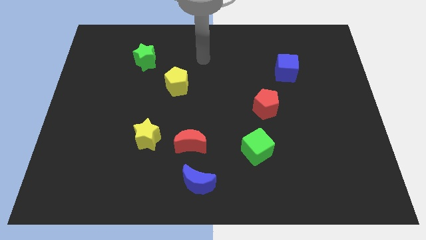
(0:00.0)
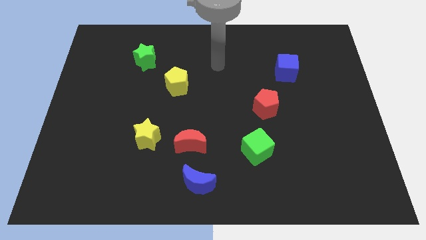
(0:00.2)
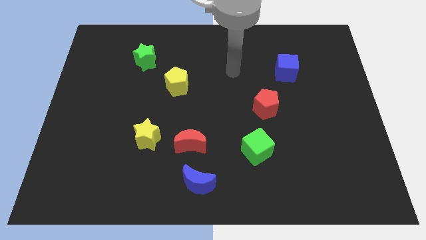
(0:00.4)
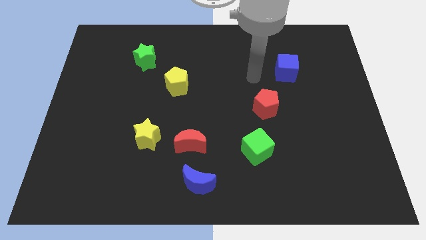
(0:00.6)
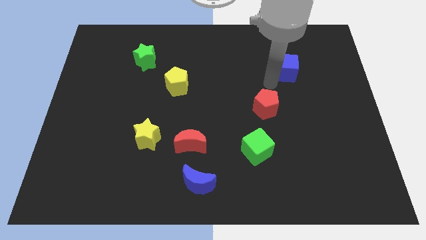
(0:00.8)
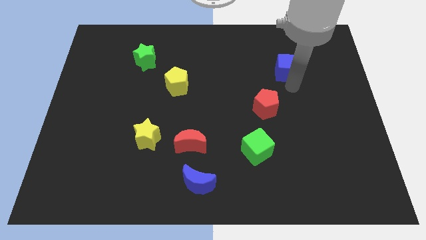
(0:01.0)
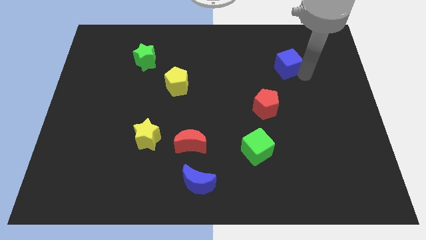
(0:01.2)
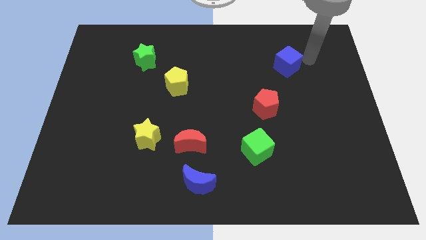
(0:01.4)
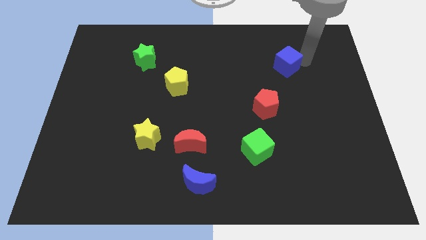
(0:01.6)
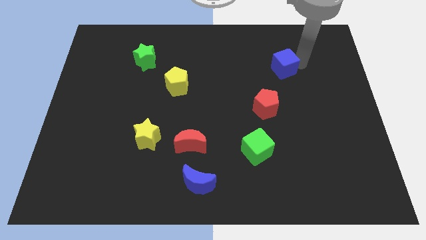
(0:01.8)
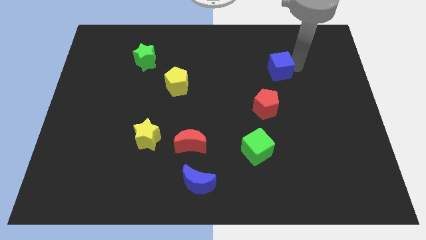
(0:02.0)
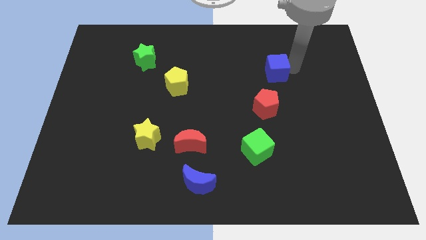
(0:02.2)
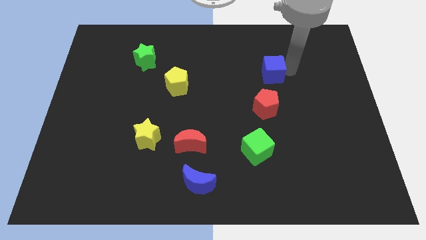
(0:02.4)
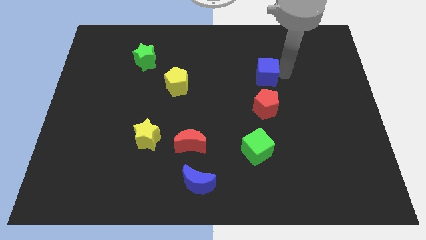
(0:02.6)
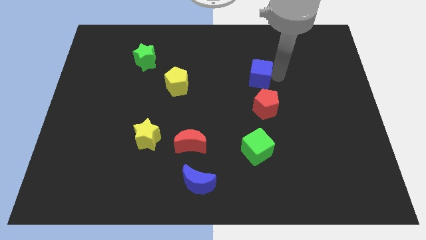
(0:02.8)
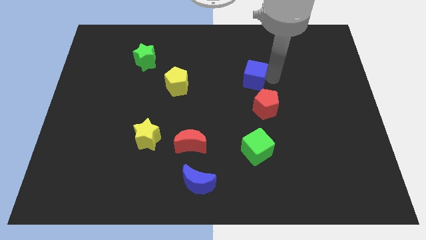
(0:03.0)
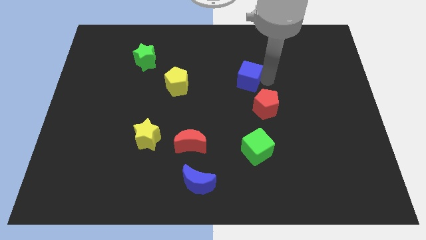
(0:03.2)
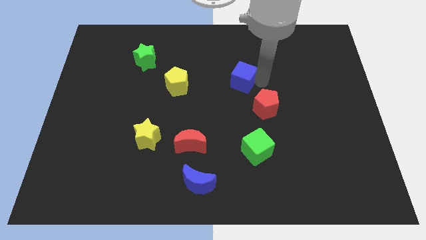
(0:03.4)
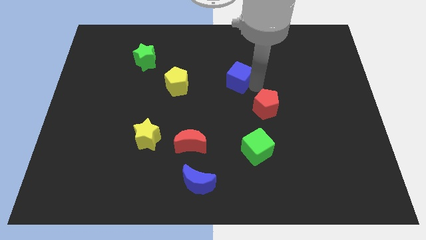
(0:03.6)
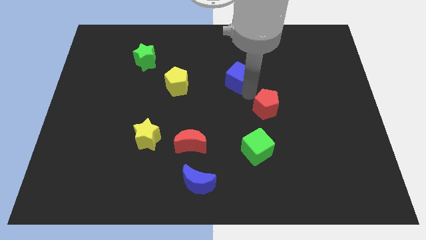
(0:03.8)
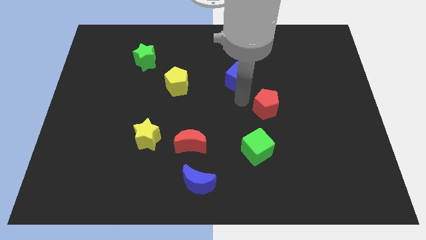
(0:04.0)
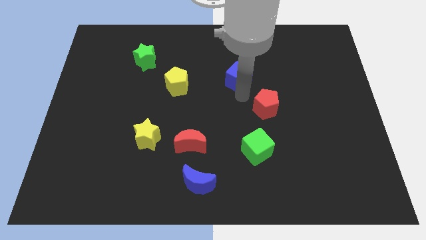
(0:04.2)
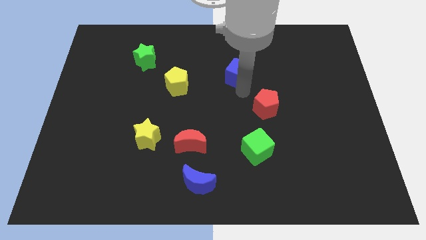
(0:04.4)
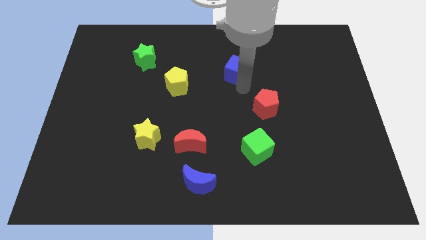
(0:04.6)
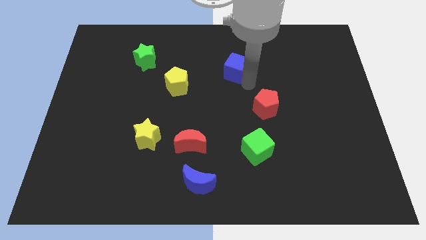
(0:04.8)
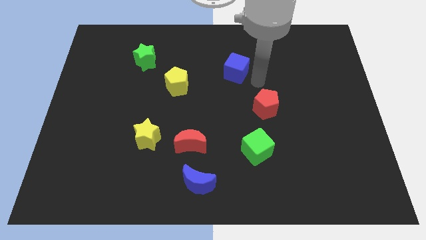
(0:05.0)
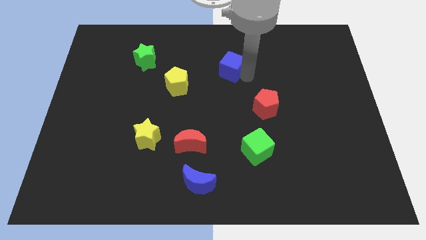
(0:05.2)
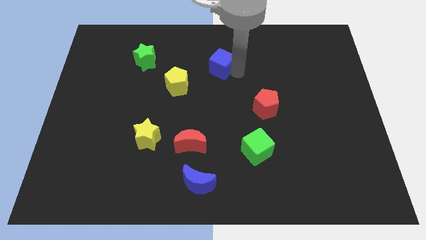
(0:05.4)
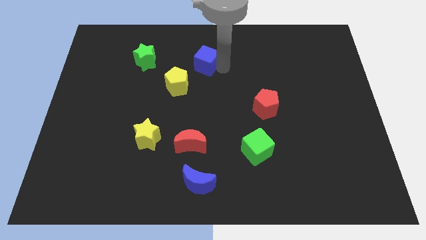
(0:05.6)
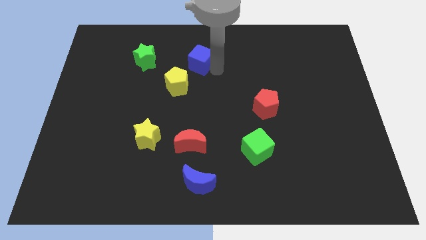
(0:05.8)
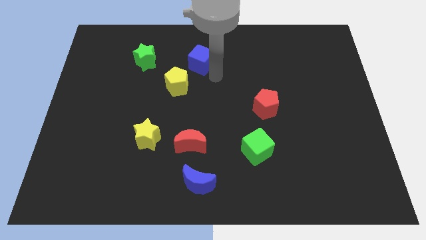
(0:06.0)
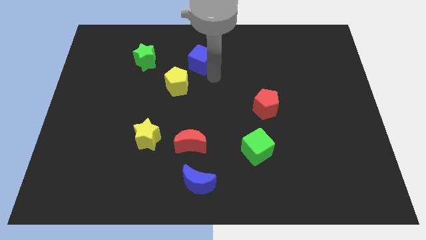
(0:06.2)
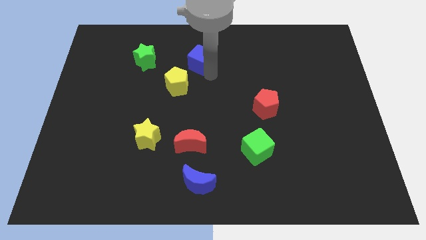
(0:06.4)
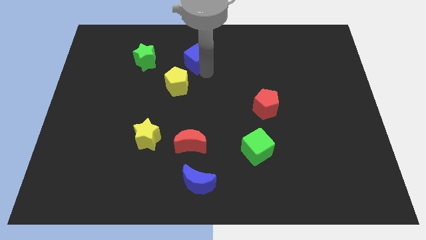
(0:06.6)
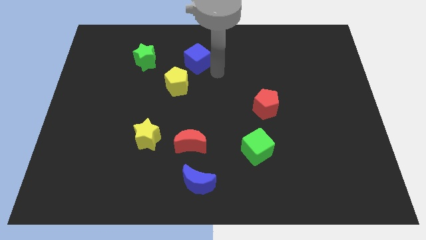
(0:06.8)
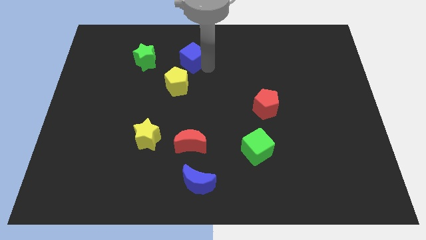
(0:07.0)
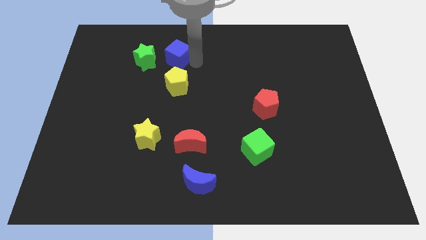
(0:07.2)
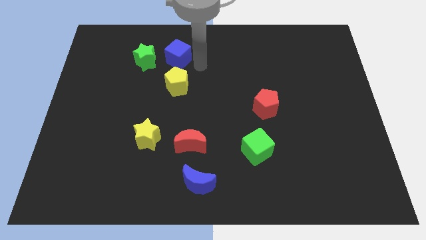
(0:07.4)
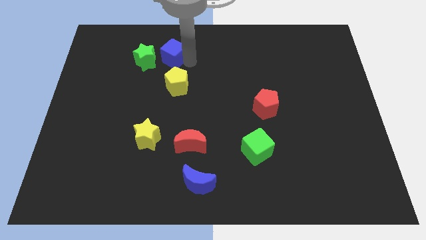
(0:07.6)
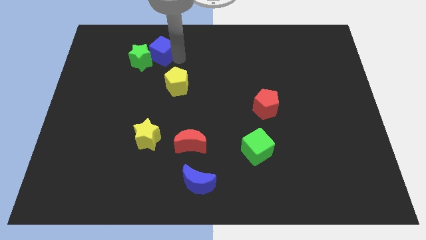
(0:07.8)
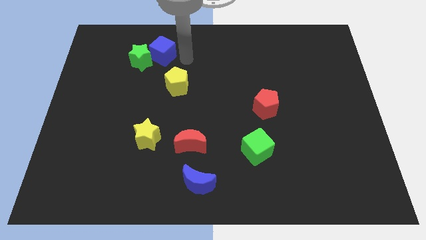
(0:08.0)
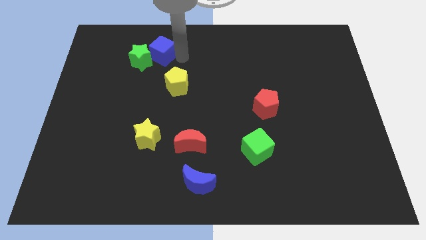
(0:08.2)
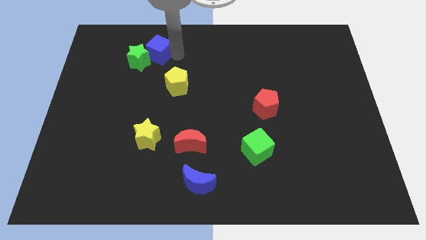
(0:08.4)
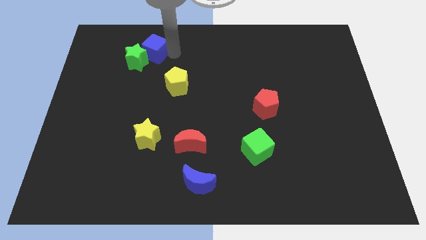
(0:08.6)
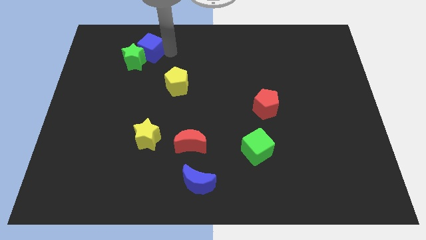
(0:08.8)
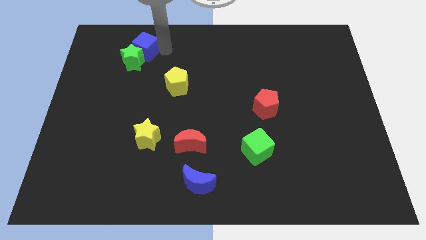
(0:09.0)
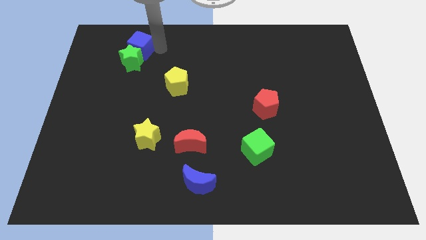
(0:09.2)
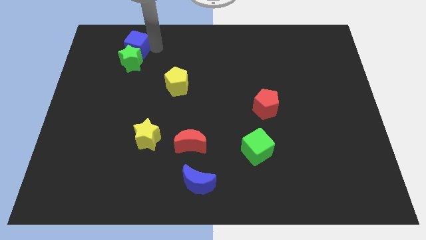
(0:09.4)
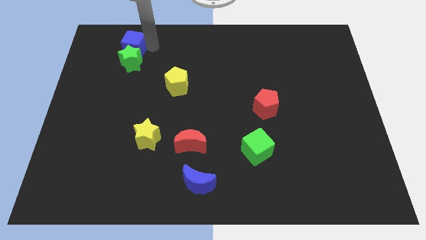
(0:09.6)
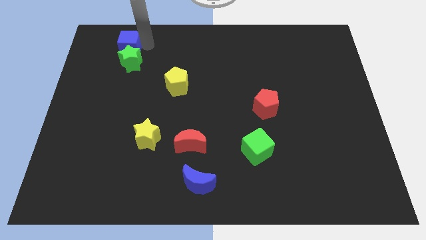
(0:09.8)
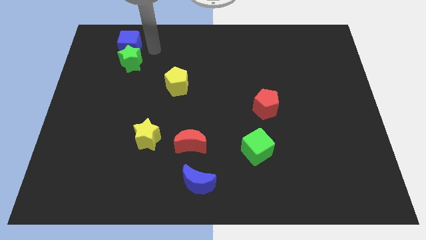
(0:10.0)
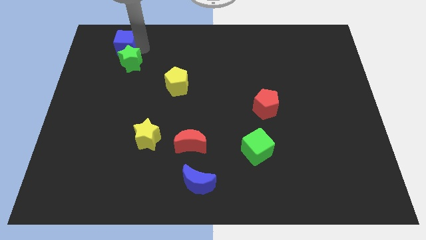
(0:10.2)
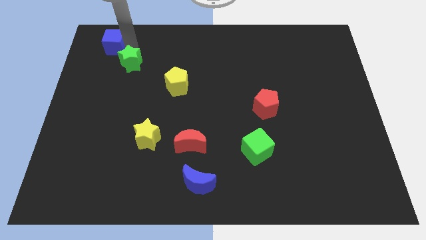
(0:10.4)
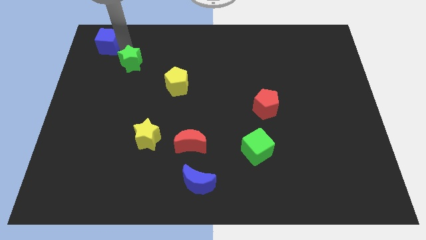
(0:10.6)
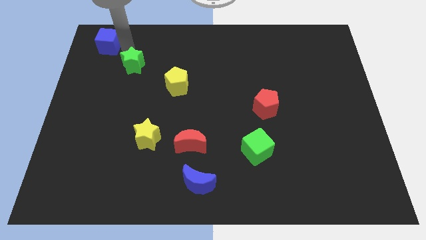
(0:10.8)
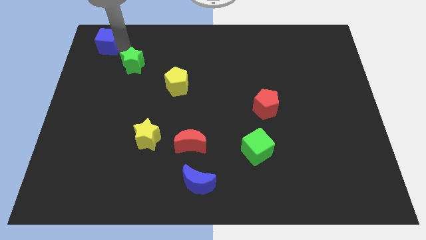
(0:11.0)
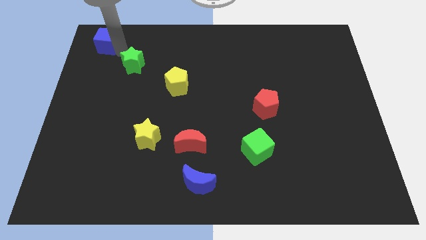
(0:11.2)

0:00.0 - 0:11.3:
move the blue cube to the top left of the board
